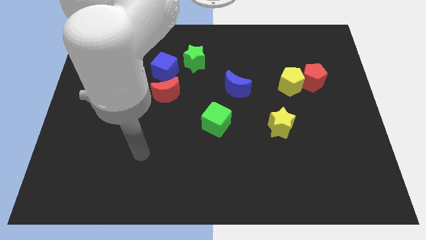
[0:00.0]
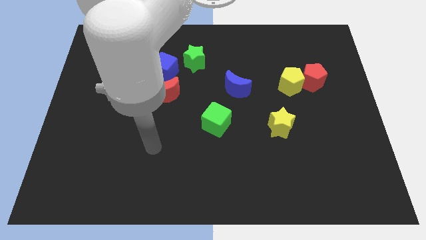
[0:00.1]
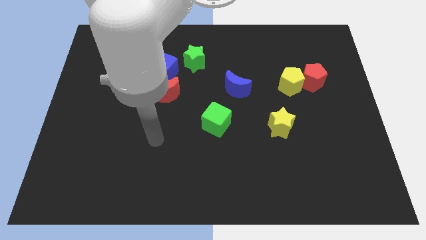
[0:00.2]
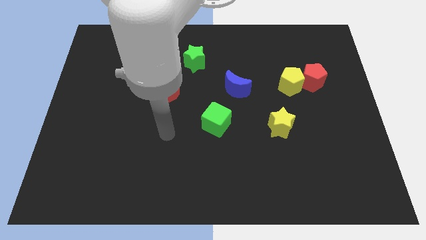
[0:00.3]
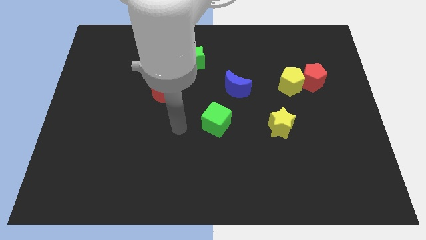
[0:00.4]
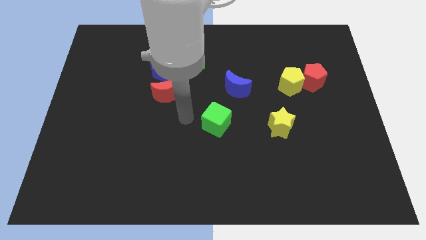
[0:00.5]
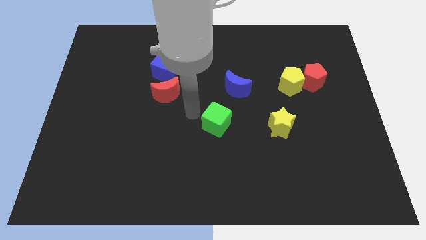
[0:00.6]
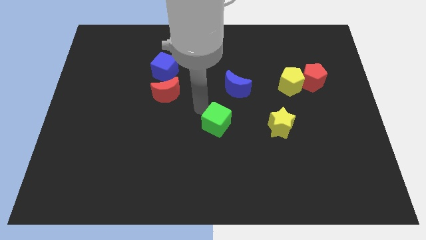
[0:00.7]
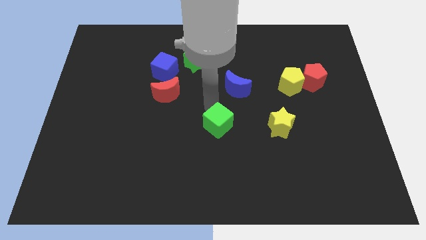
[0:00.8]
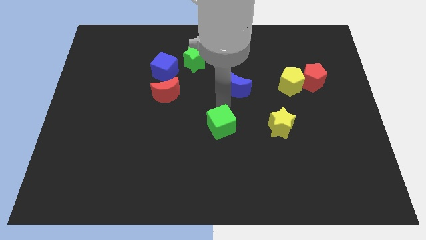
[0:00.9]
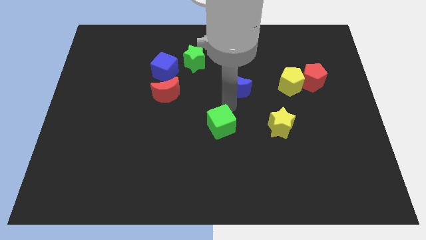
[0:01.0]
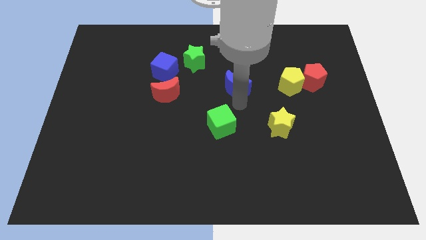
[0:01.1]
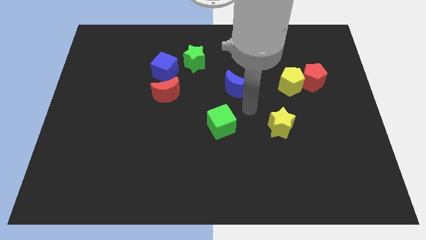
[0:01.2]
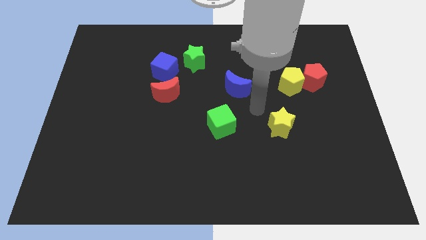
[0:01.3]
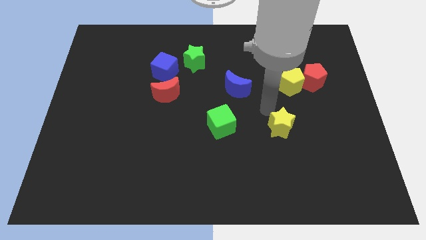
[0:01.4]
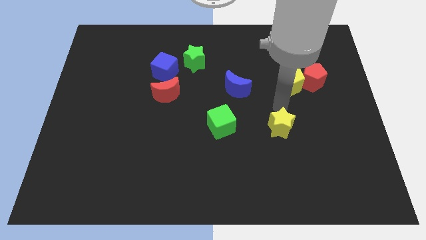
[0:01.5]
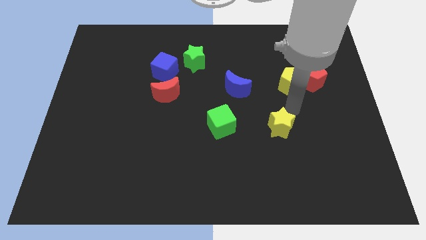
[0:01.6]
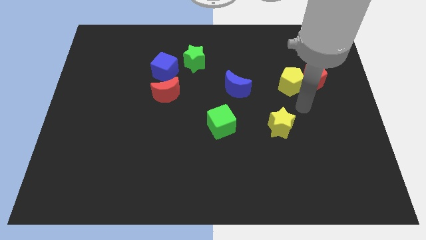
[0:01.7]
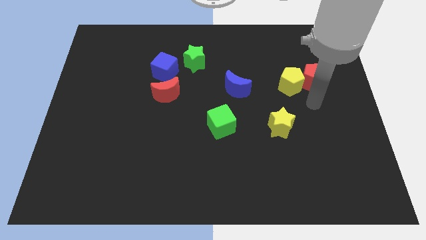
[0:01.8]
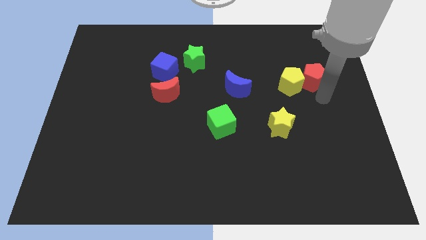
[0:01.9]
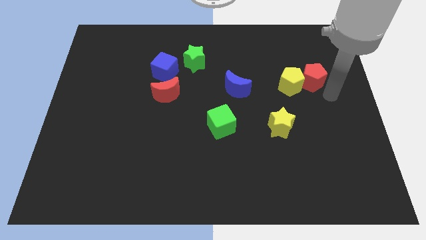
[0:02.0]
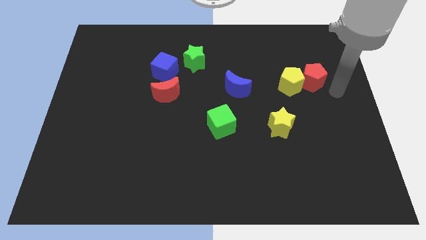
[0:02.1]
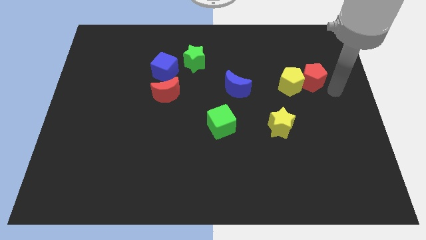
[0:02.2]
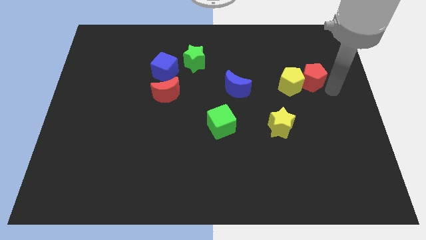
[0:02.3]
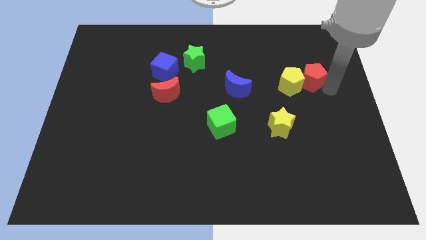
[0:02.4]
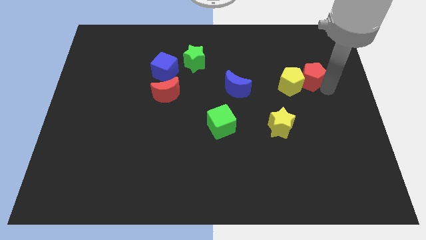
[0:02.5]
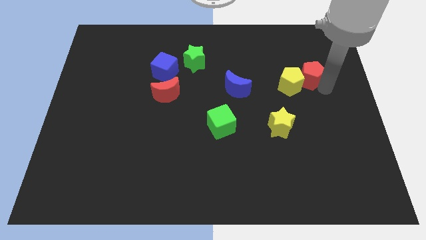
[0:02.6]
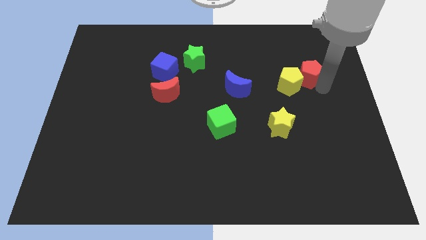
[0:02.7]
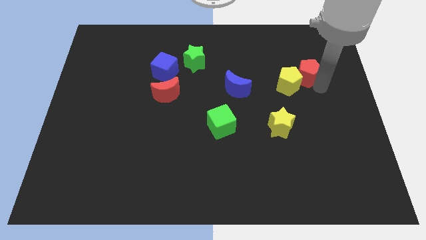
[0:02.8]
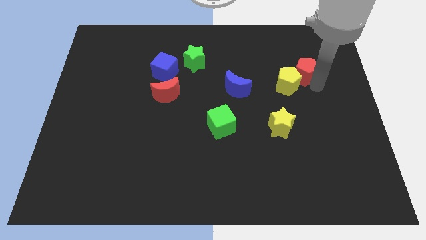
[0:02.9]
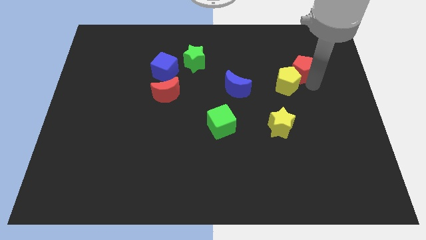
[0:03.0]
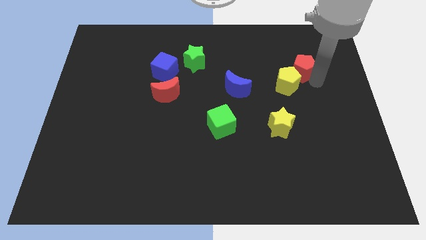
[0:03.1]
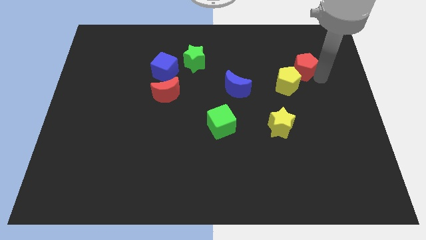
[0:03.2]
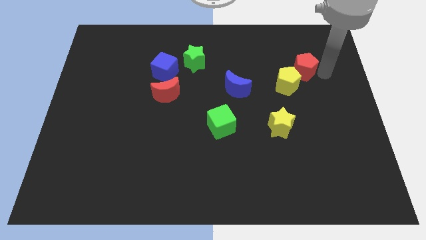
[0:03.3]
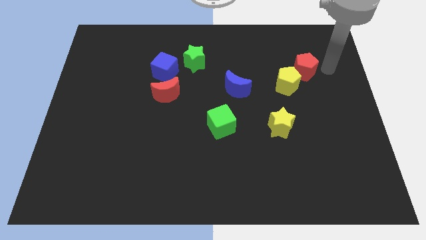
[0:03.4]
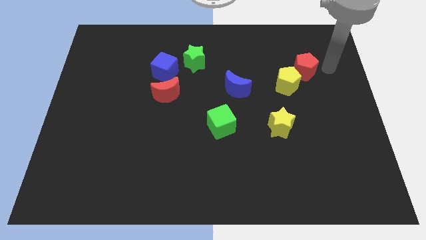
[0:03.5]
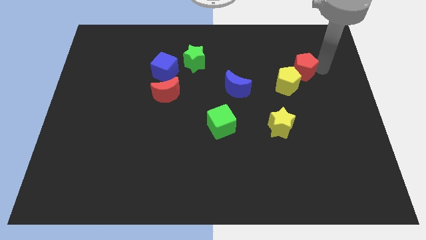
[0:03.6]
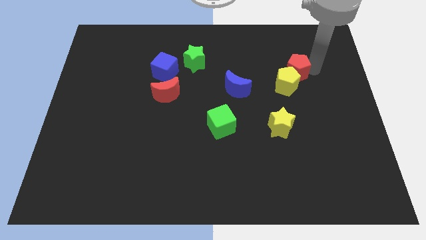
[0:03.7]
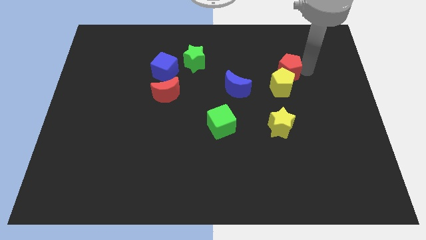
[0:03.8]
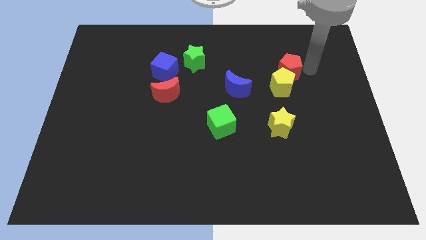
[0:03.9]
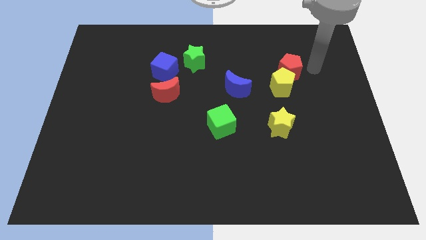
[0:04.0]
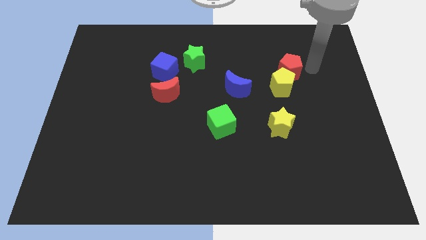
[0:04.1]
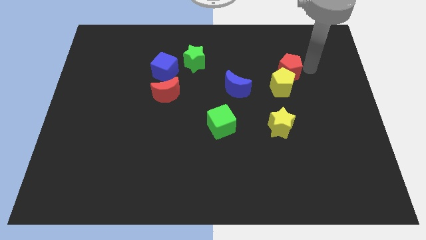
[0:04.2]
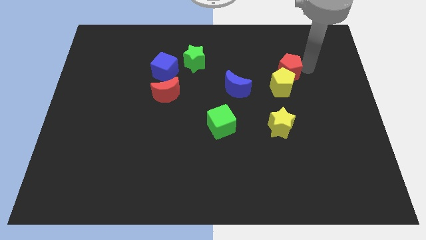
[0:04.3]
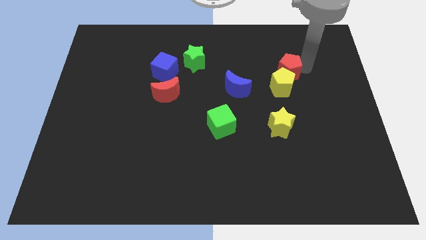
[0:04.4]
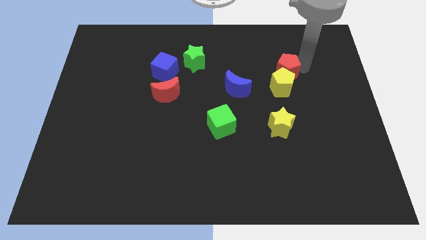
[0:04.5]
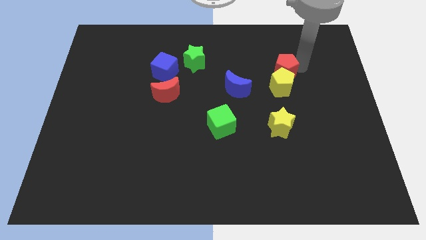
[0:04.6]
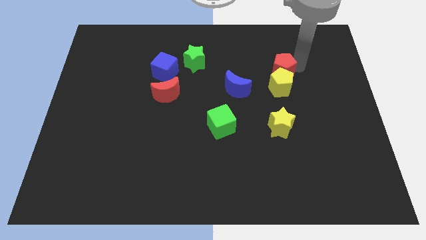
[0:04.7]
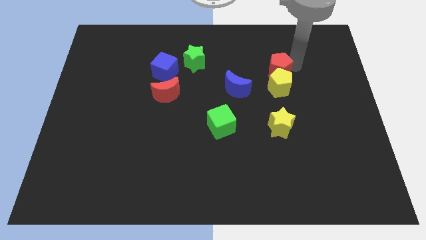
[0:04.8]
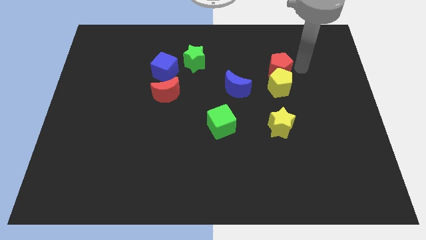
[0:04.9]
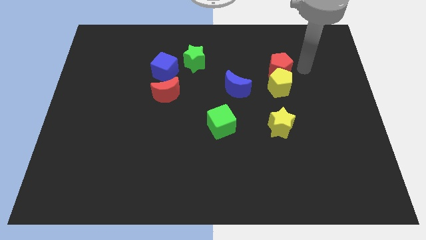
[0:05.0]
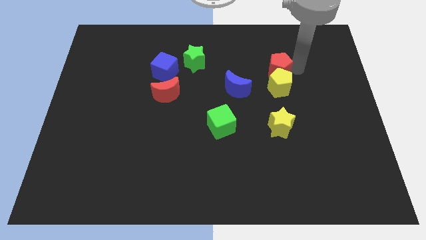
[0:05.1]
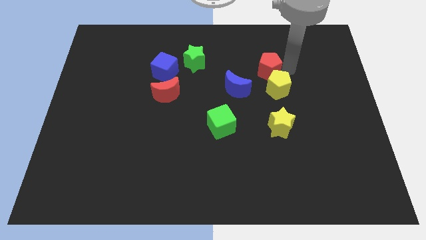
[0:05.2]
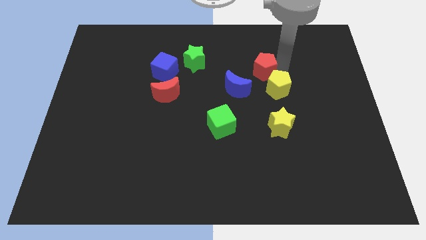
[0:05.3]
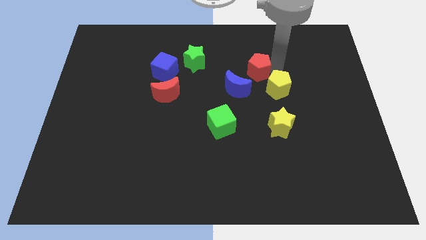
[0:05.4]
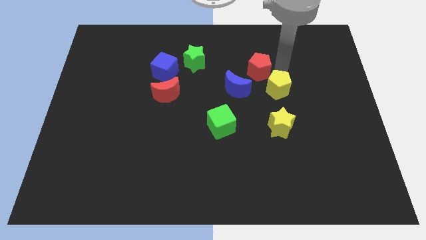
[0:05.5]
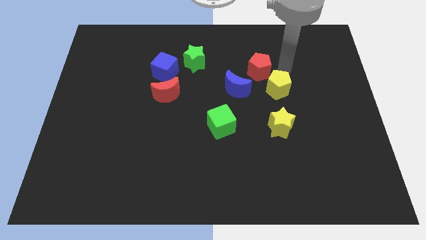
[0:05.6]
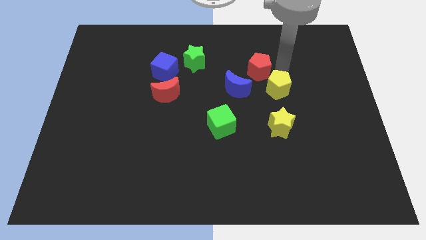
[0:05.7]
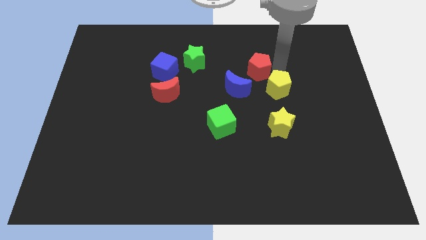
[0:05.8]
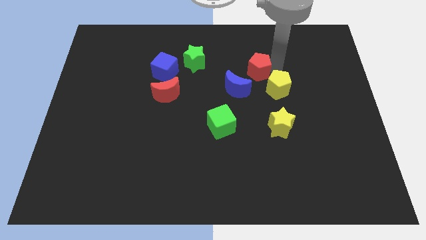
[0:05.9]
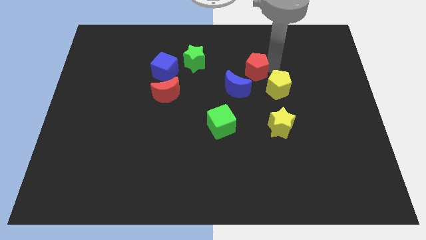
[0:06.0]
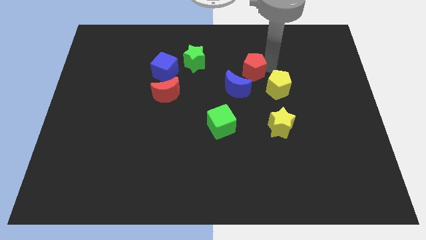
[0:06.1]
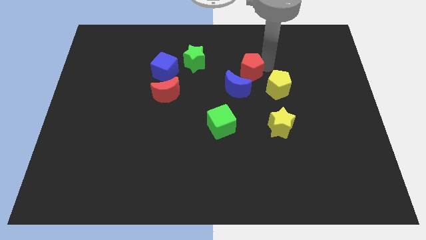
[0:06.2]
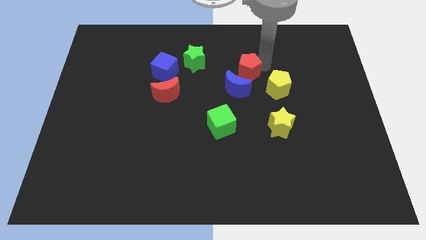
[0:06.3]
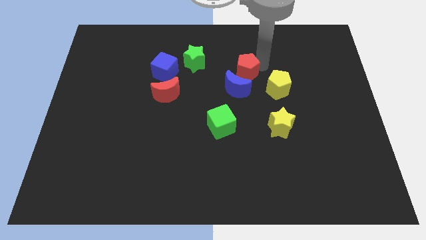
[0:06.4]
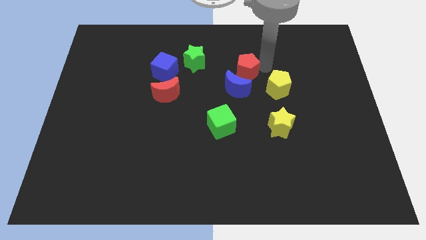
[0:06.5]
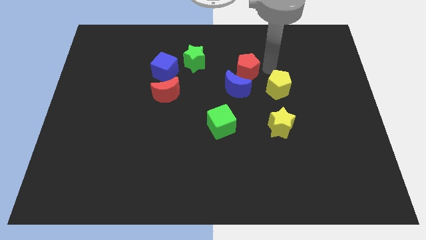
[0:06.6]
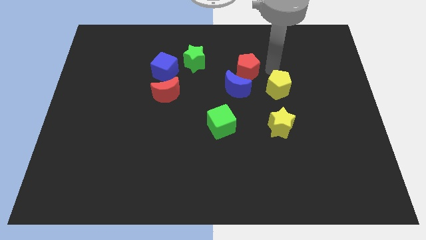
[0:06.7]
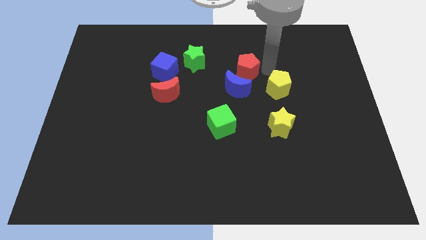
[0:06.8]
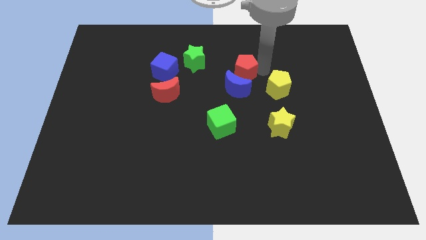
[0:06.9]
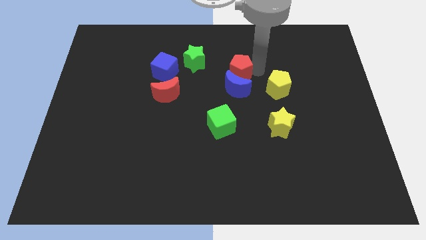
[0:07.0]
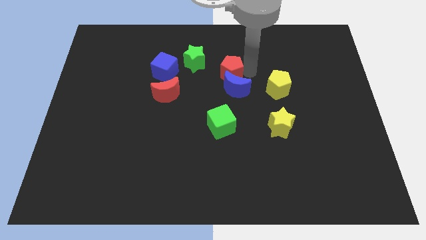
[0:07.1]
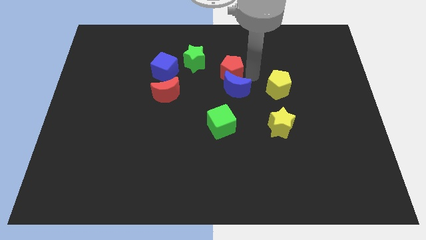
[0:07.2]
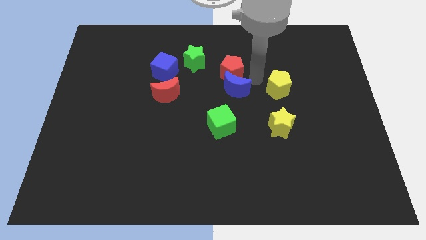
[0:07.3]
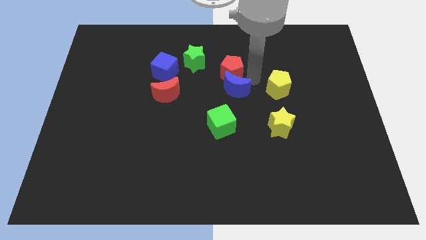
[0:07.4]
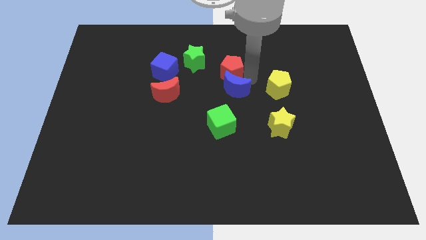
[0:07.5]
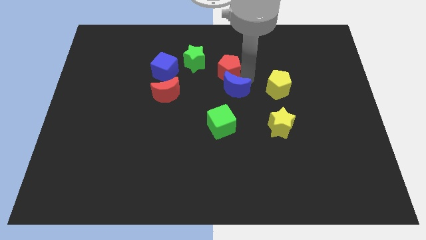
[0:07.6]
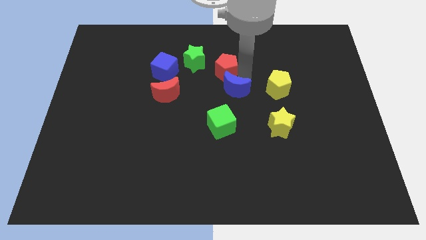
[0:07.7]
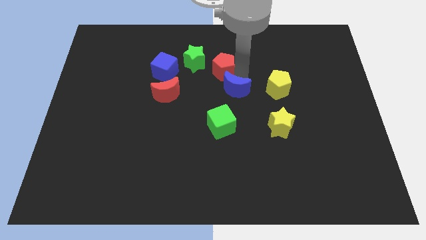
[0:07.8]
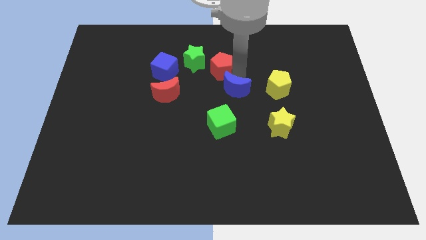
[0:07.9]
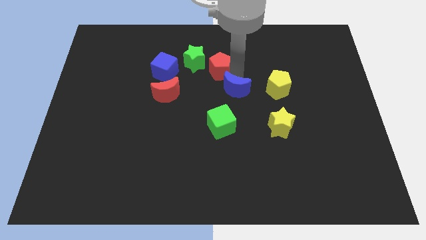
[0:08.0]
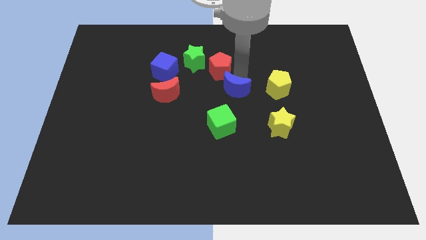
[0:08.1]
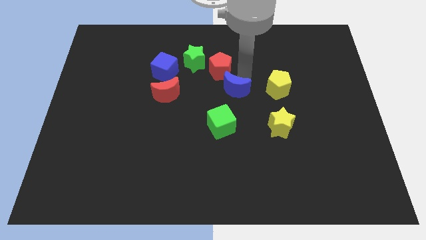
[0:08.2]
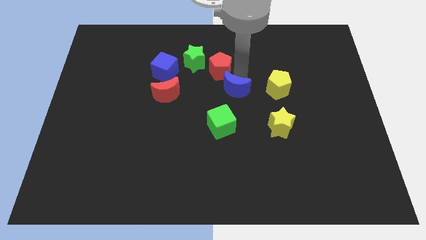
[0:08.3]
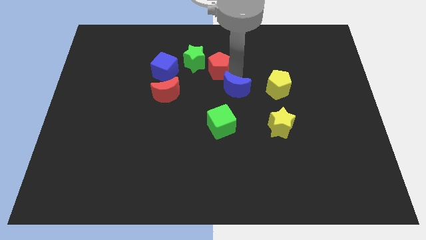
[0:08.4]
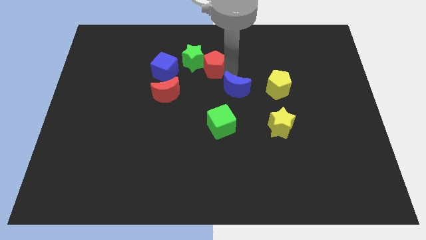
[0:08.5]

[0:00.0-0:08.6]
move the red pentagon close to the green star
